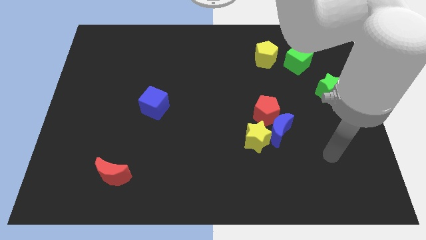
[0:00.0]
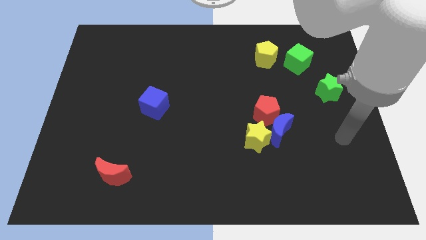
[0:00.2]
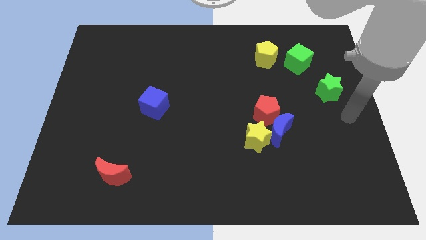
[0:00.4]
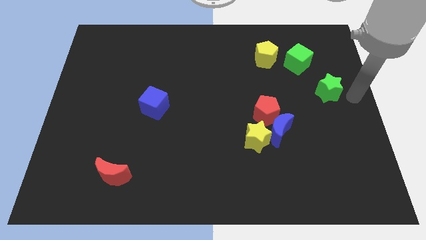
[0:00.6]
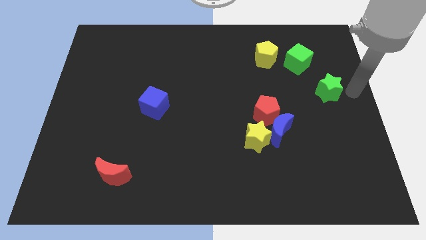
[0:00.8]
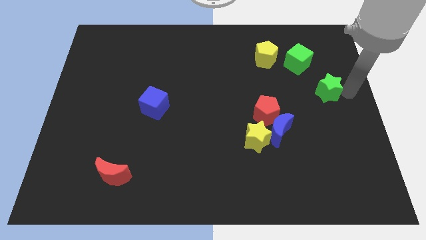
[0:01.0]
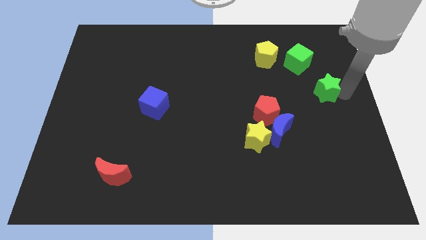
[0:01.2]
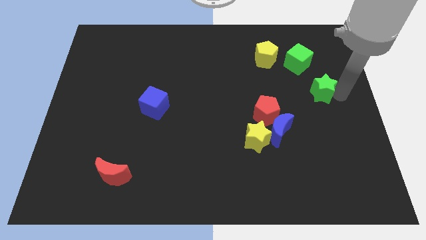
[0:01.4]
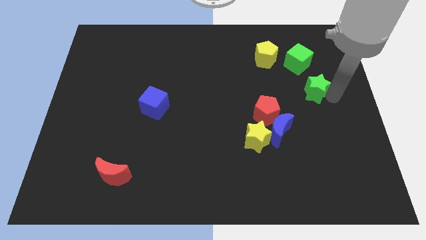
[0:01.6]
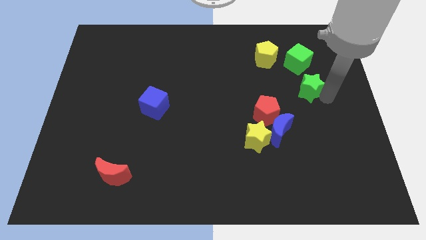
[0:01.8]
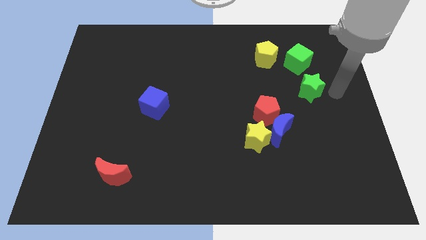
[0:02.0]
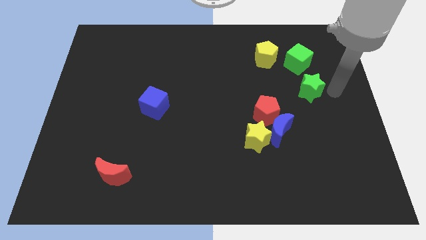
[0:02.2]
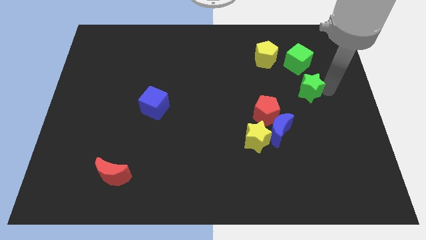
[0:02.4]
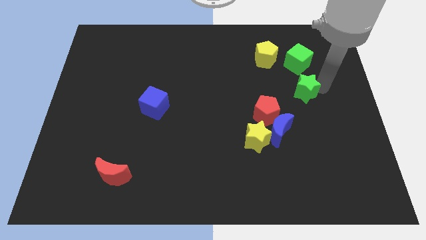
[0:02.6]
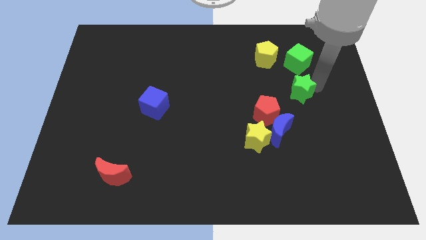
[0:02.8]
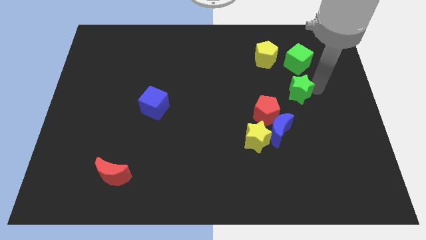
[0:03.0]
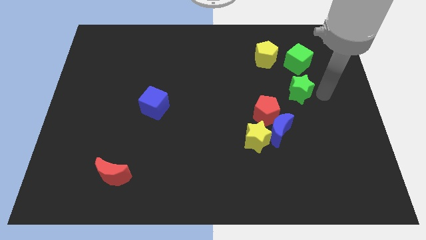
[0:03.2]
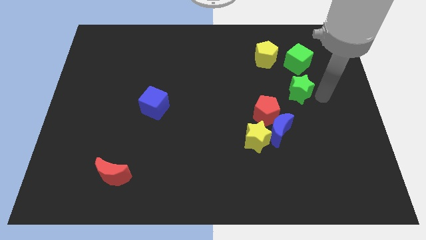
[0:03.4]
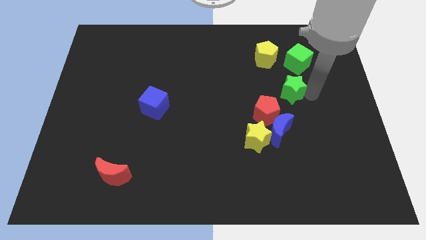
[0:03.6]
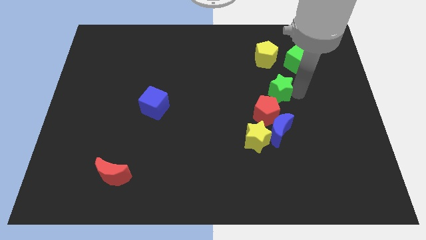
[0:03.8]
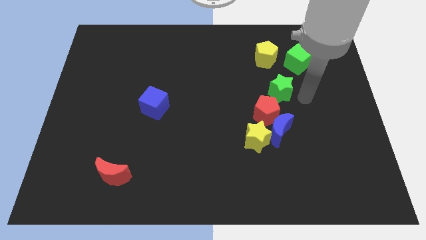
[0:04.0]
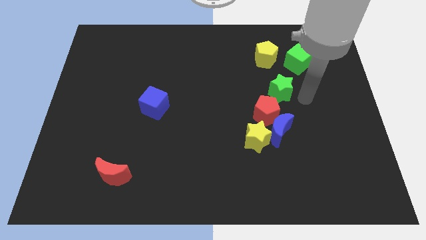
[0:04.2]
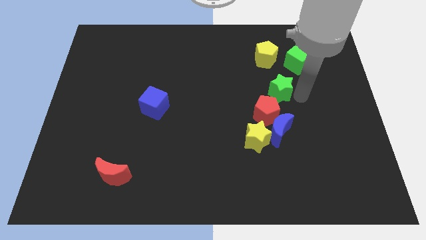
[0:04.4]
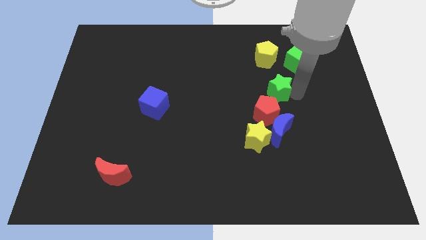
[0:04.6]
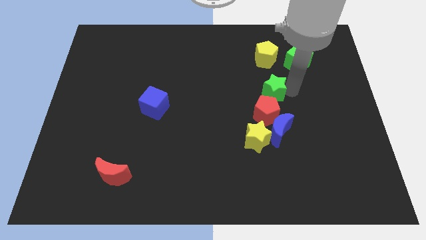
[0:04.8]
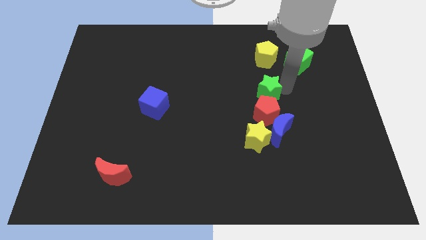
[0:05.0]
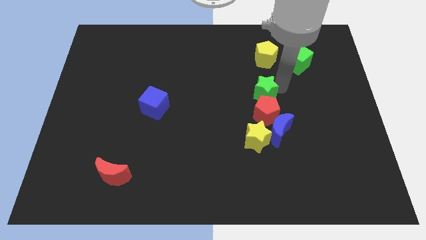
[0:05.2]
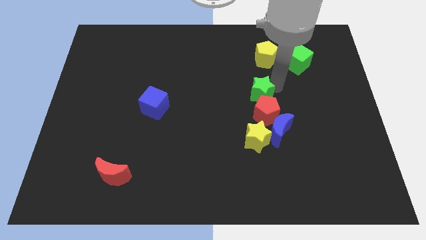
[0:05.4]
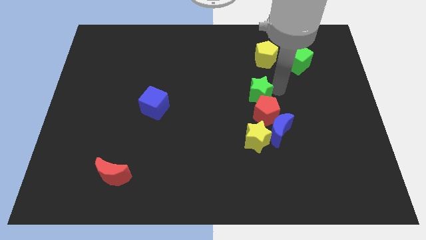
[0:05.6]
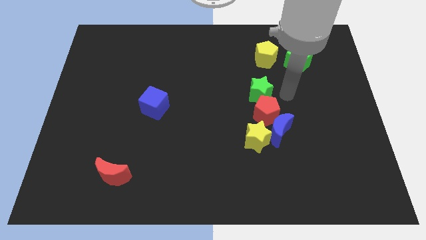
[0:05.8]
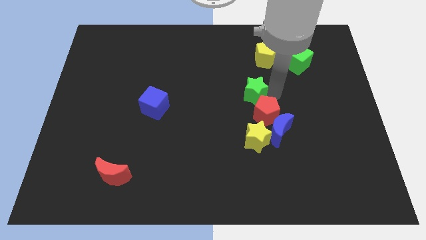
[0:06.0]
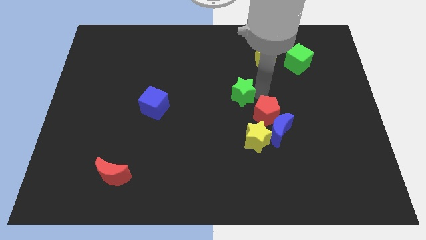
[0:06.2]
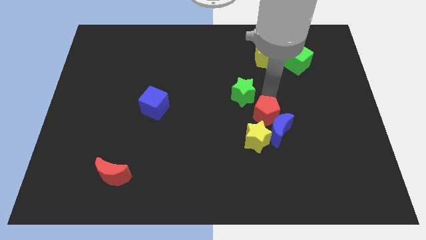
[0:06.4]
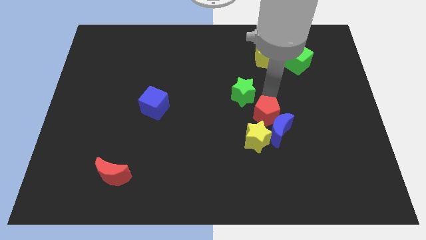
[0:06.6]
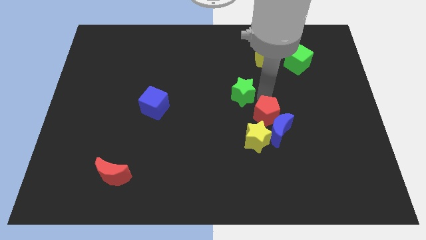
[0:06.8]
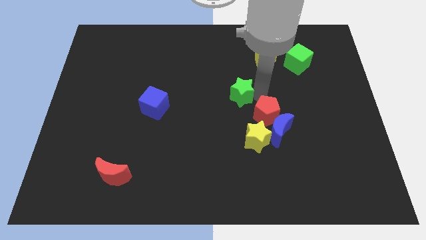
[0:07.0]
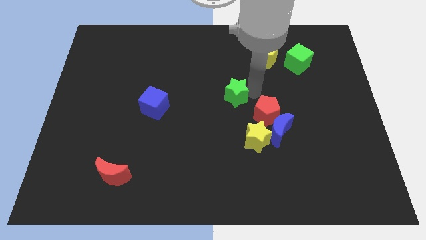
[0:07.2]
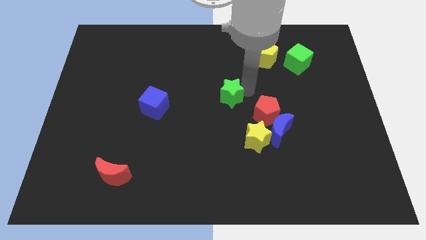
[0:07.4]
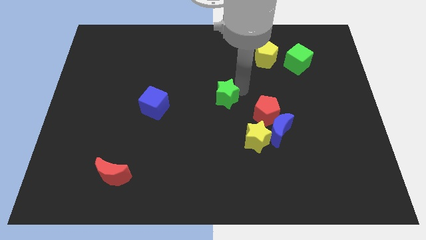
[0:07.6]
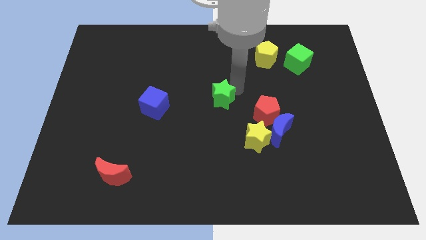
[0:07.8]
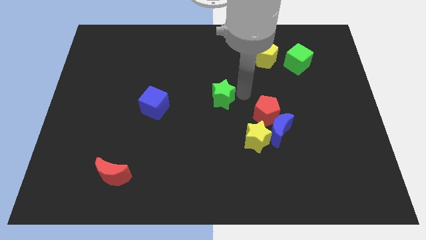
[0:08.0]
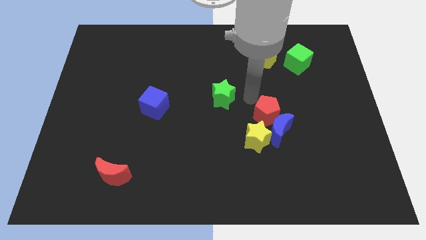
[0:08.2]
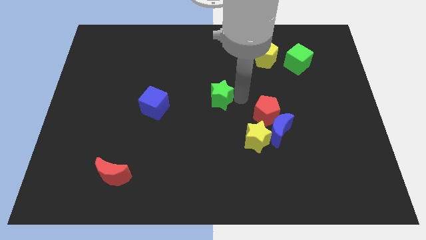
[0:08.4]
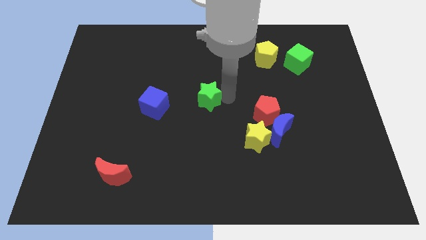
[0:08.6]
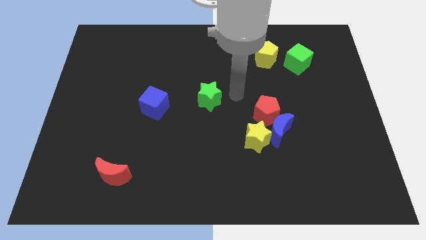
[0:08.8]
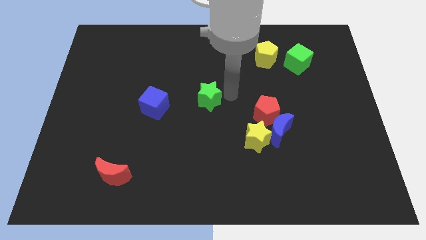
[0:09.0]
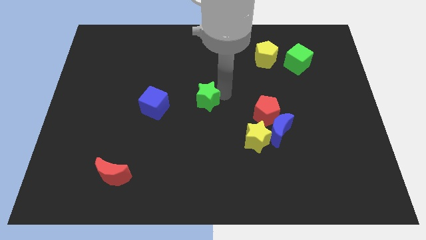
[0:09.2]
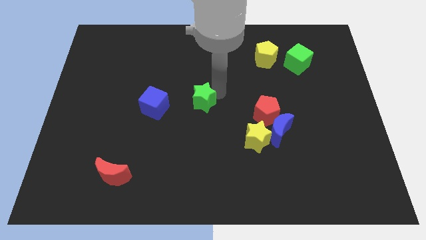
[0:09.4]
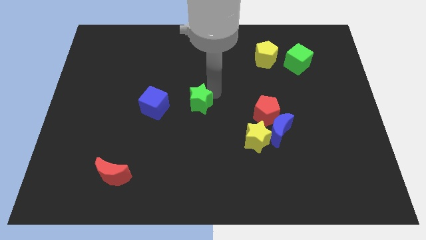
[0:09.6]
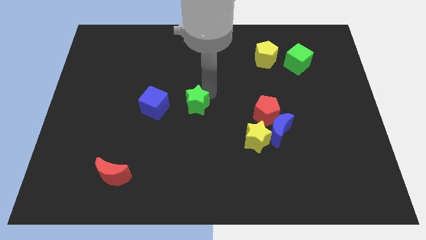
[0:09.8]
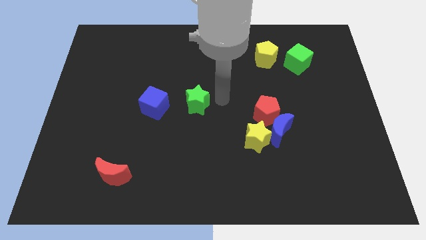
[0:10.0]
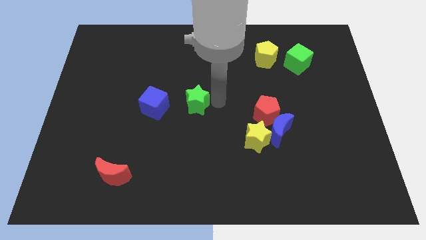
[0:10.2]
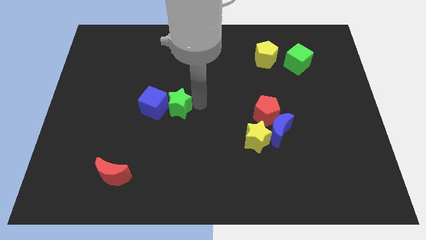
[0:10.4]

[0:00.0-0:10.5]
move the green star to the blue cube

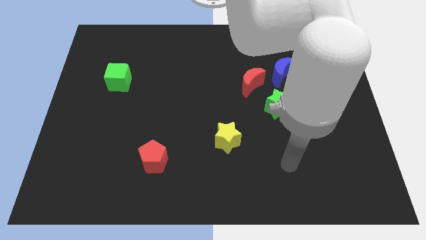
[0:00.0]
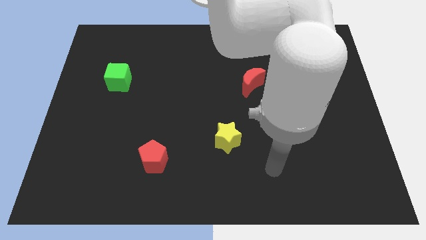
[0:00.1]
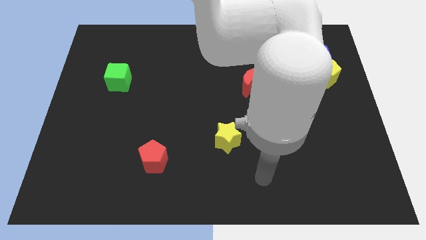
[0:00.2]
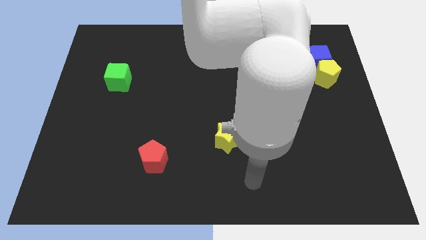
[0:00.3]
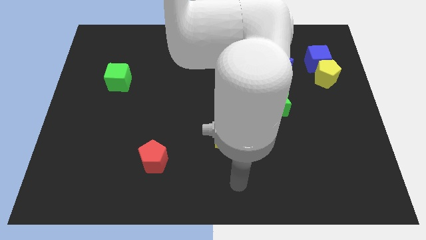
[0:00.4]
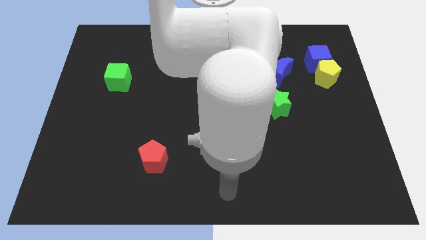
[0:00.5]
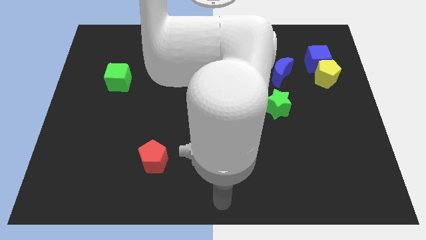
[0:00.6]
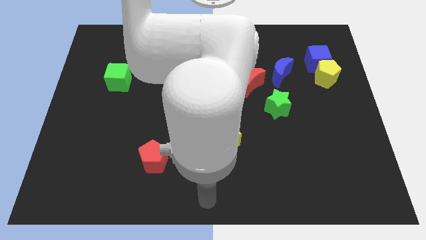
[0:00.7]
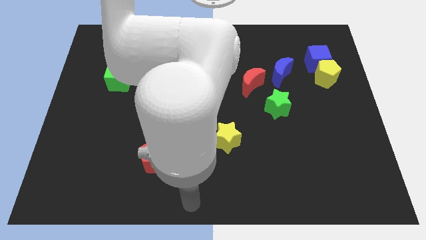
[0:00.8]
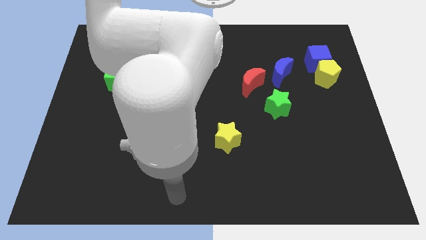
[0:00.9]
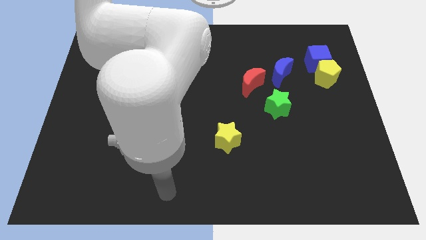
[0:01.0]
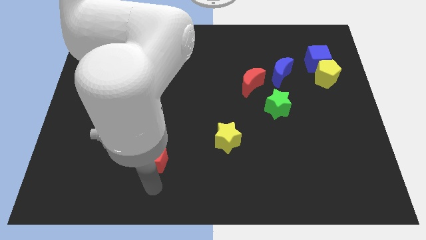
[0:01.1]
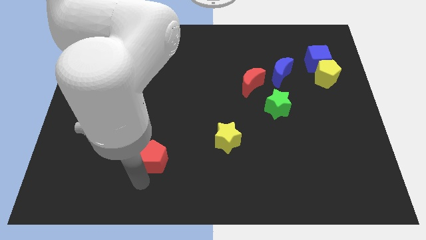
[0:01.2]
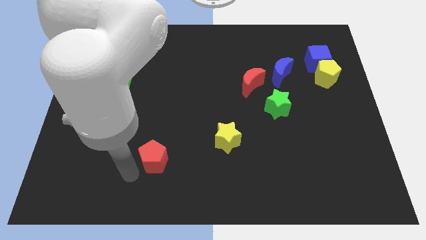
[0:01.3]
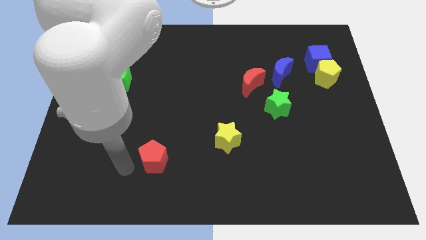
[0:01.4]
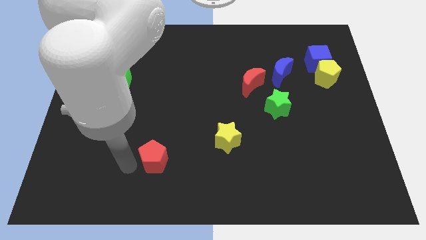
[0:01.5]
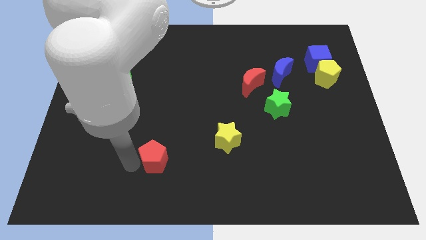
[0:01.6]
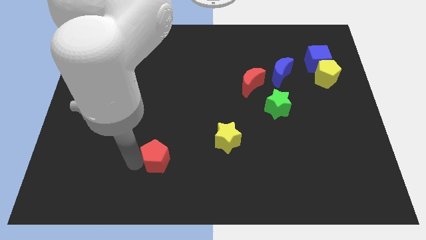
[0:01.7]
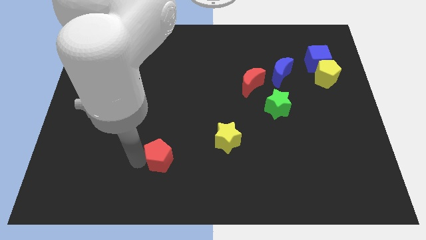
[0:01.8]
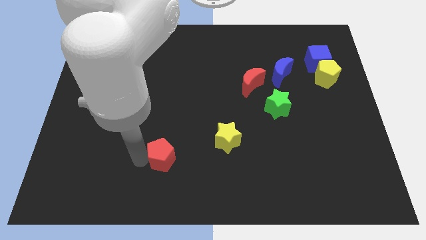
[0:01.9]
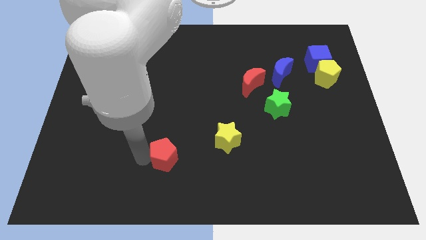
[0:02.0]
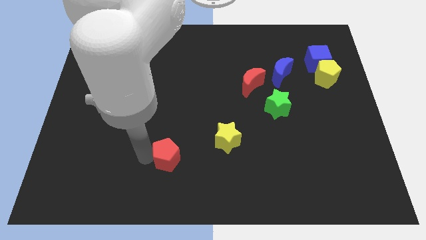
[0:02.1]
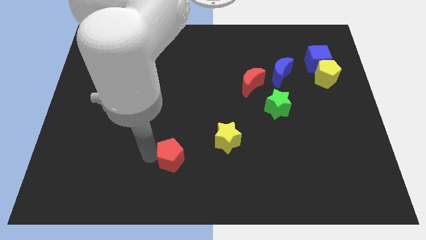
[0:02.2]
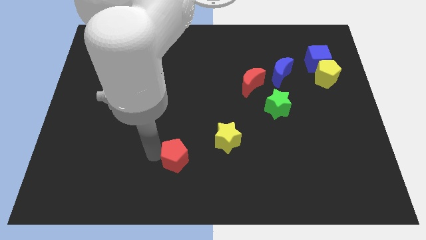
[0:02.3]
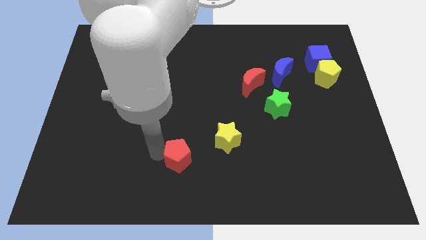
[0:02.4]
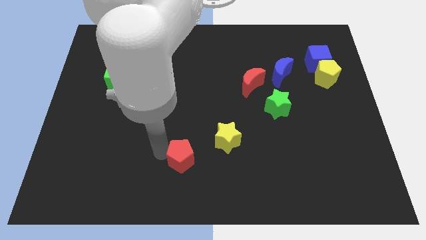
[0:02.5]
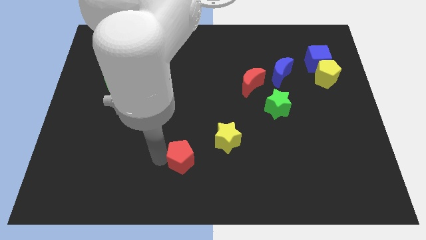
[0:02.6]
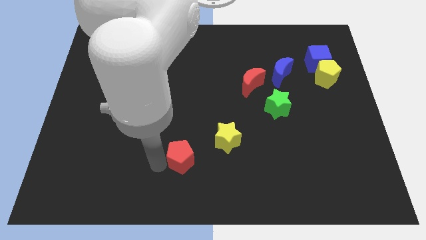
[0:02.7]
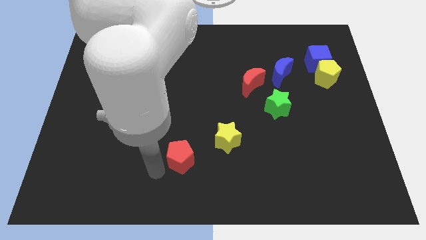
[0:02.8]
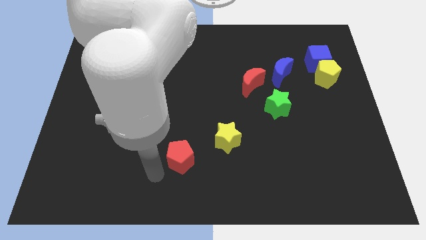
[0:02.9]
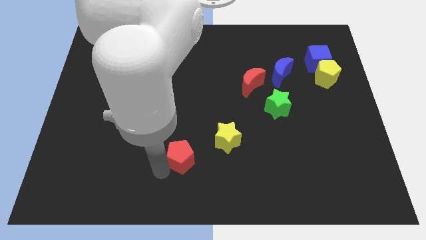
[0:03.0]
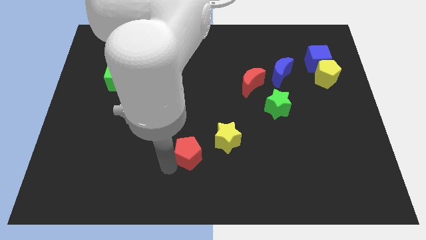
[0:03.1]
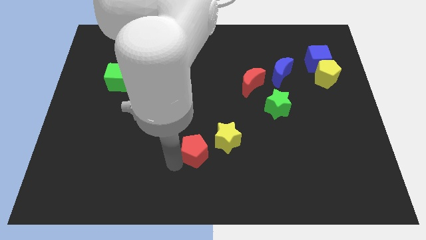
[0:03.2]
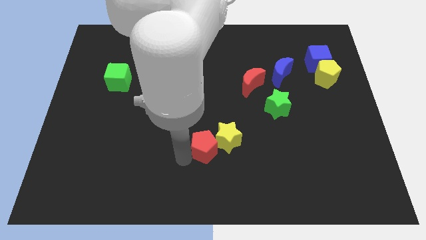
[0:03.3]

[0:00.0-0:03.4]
slide the red pentagon to the yellow star
